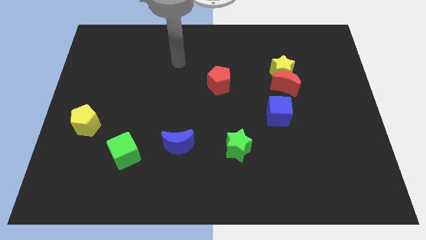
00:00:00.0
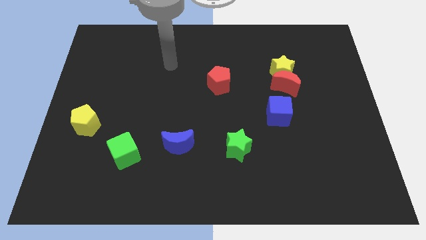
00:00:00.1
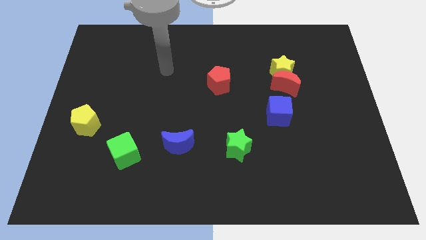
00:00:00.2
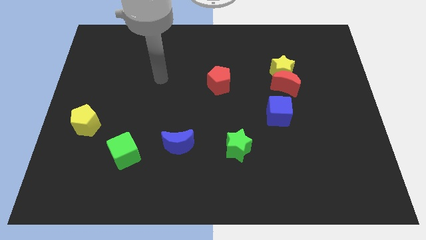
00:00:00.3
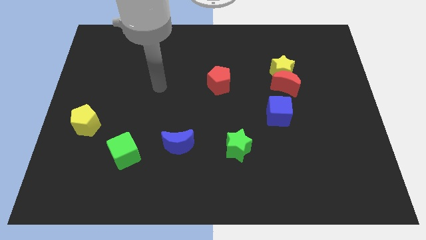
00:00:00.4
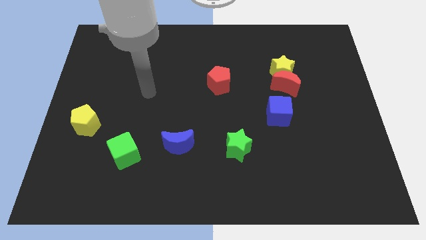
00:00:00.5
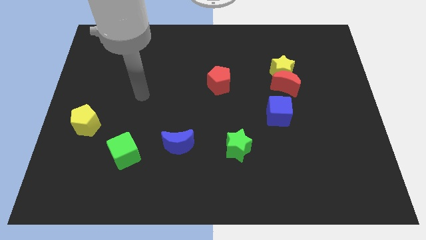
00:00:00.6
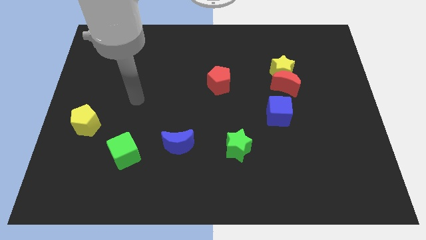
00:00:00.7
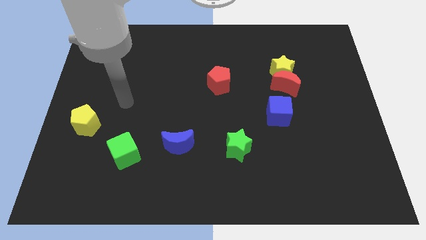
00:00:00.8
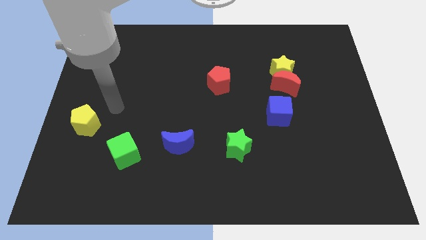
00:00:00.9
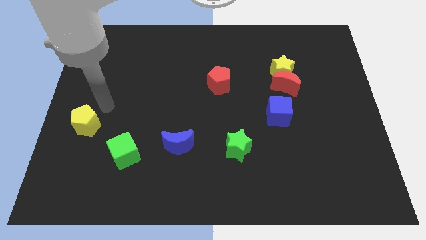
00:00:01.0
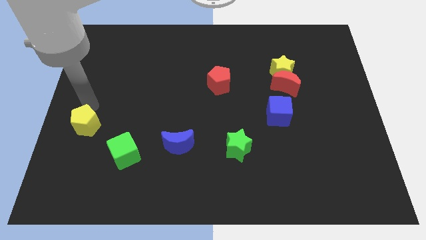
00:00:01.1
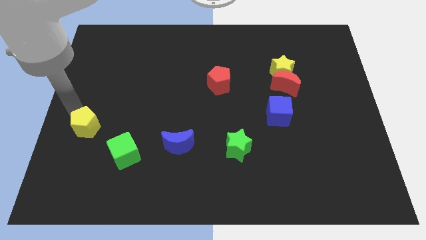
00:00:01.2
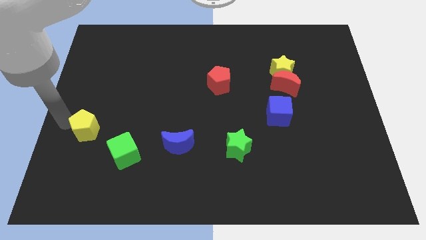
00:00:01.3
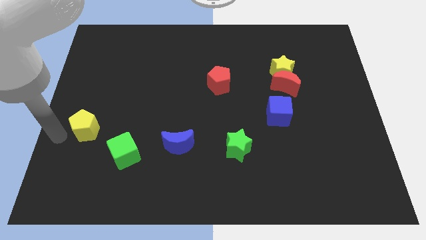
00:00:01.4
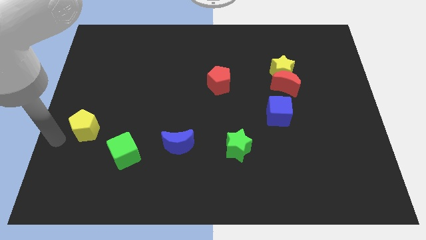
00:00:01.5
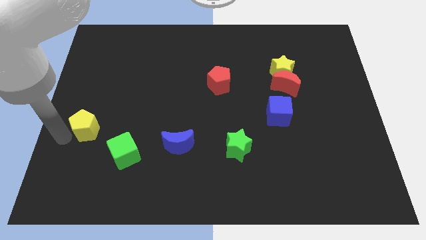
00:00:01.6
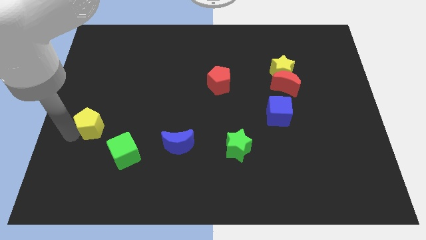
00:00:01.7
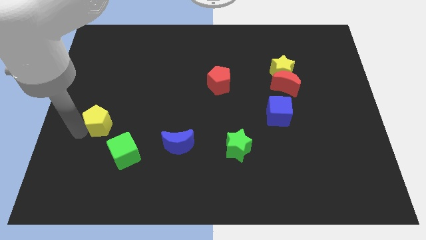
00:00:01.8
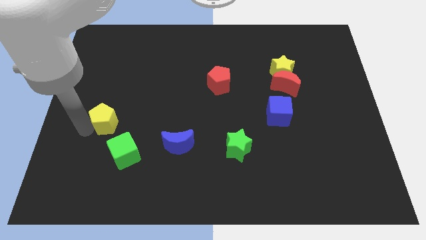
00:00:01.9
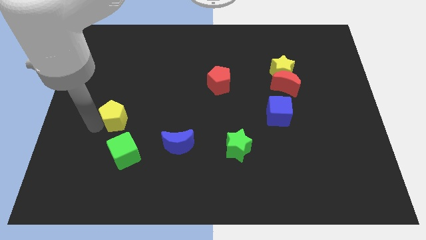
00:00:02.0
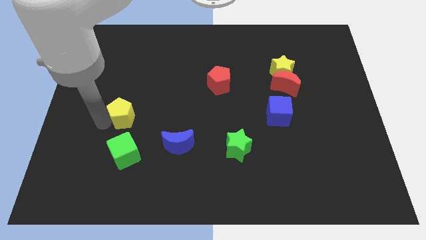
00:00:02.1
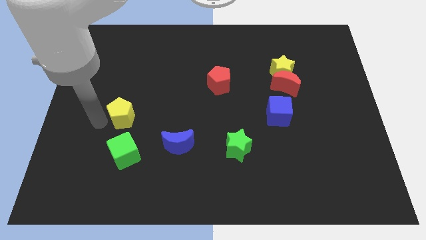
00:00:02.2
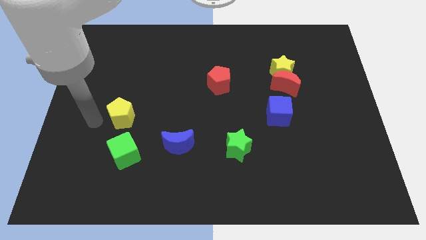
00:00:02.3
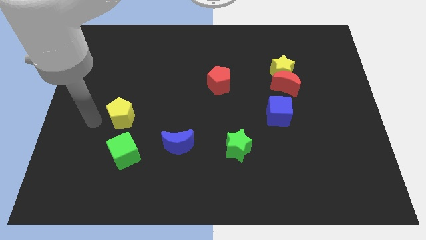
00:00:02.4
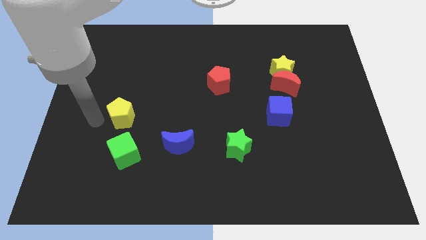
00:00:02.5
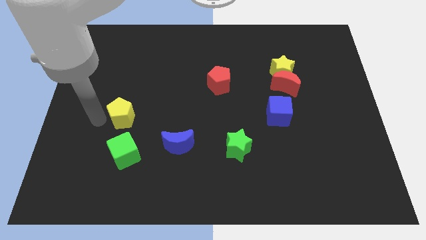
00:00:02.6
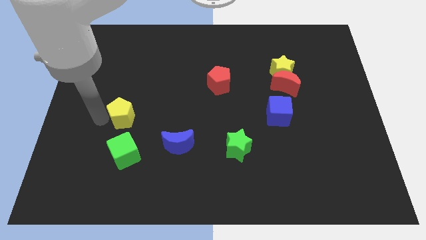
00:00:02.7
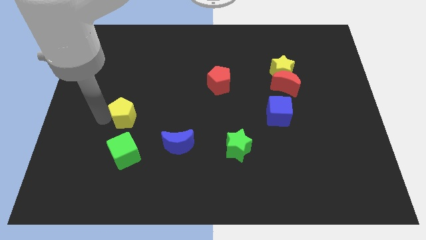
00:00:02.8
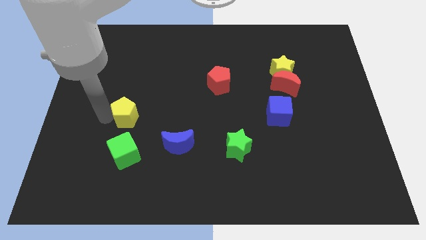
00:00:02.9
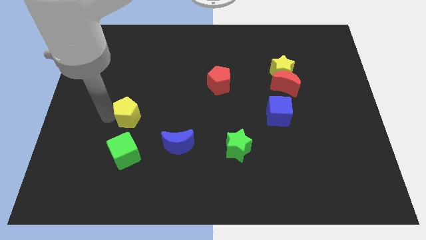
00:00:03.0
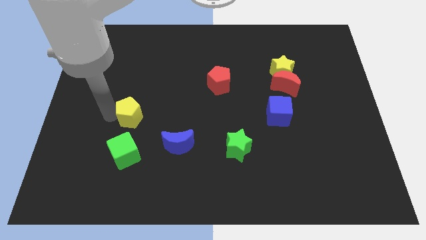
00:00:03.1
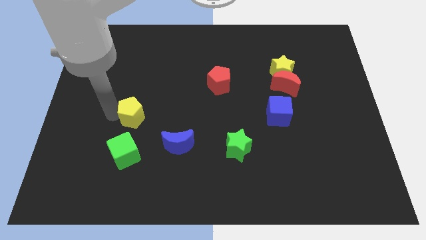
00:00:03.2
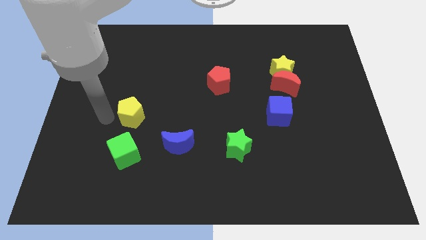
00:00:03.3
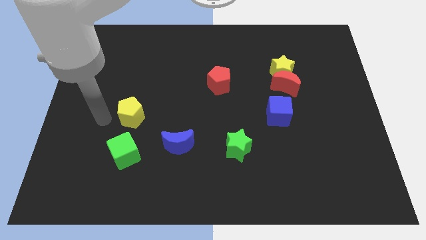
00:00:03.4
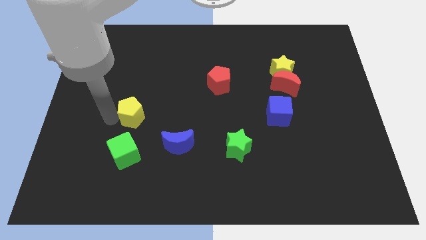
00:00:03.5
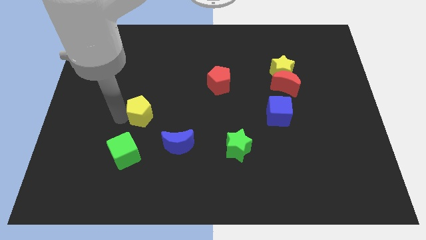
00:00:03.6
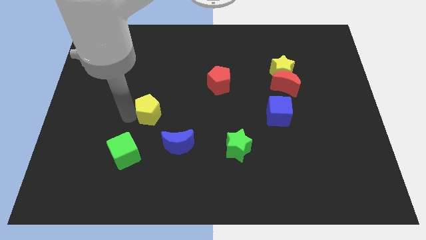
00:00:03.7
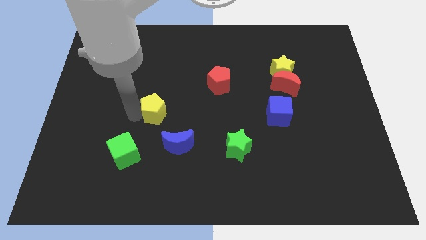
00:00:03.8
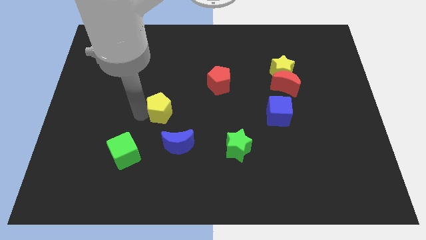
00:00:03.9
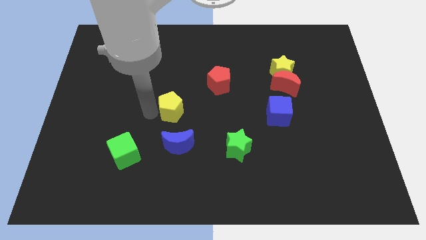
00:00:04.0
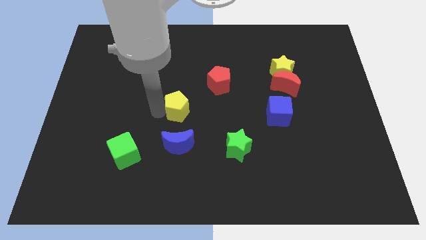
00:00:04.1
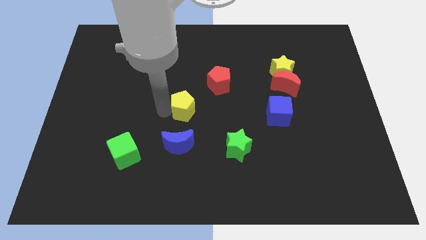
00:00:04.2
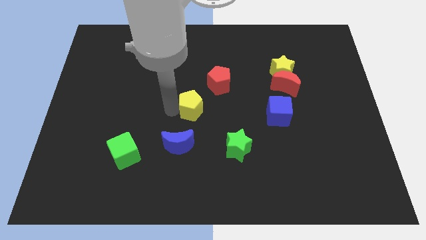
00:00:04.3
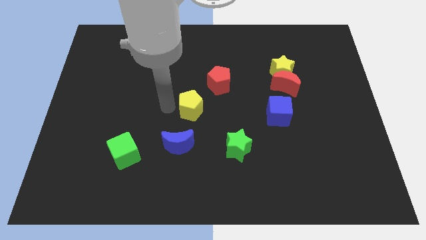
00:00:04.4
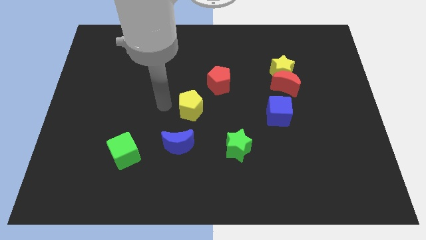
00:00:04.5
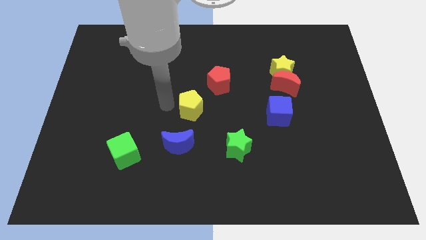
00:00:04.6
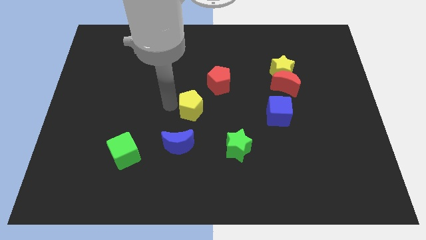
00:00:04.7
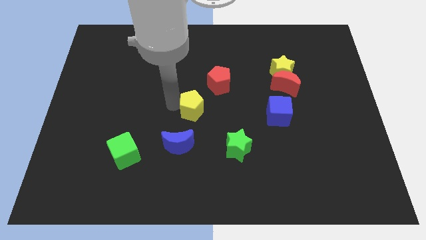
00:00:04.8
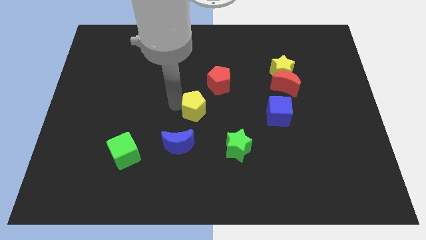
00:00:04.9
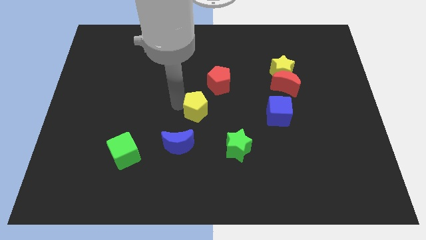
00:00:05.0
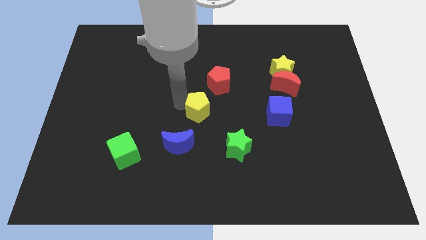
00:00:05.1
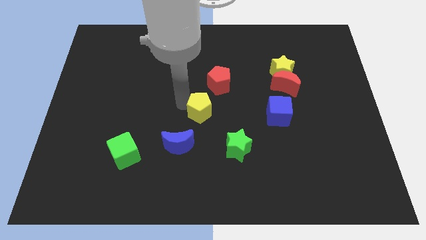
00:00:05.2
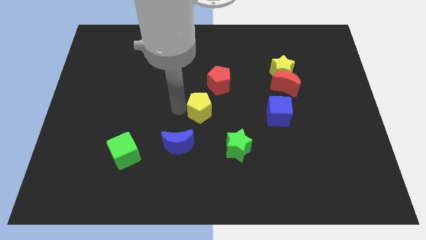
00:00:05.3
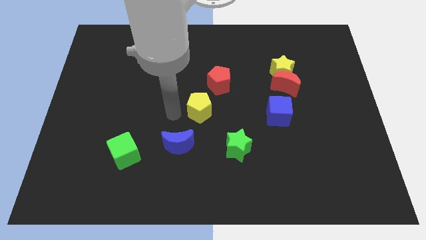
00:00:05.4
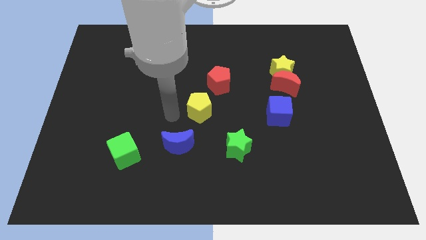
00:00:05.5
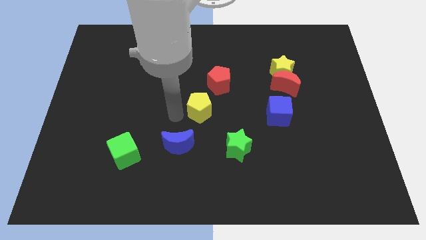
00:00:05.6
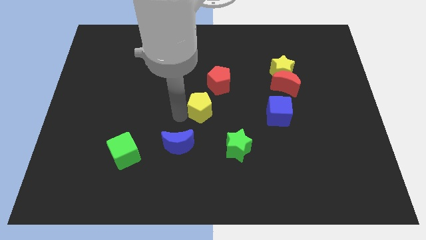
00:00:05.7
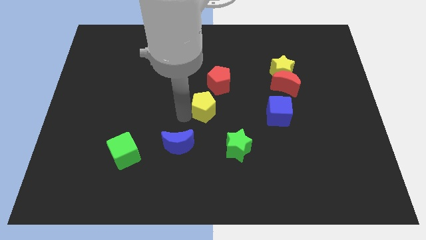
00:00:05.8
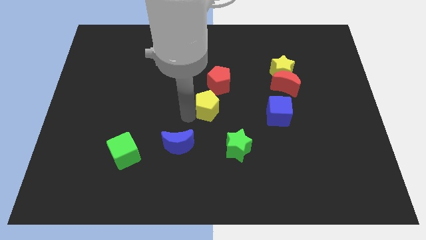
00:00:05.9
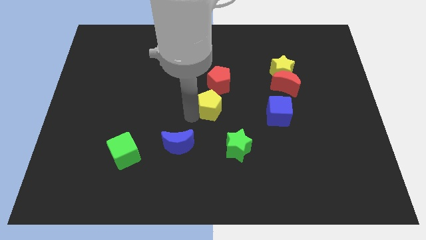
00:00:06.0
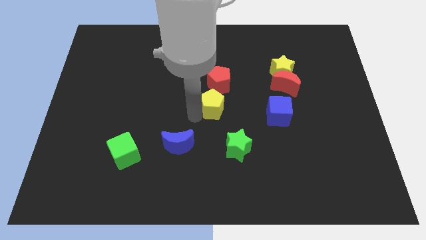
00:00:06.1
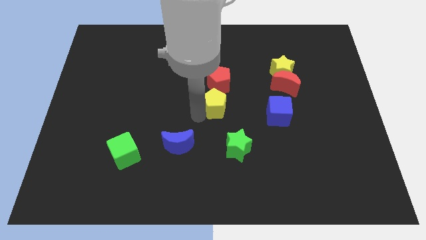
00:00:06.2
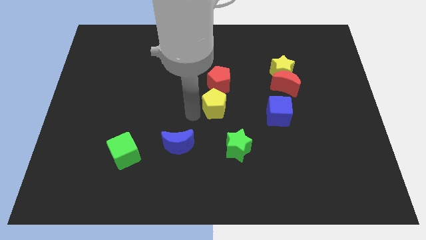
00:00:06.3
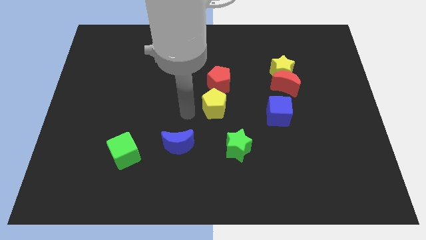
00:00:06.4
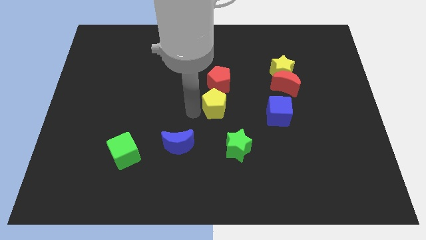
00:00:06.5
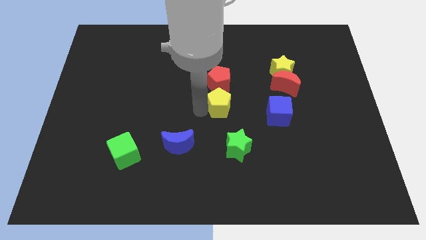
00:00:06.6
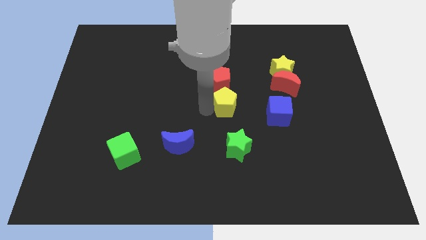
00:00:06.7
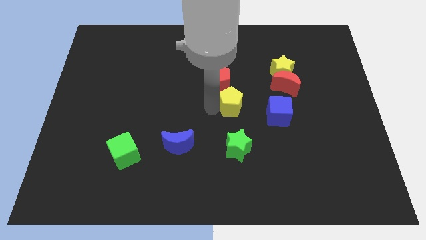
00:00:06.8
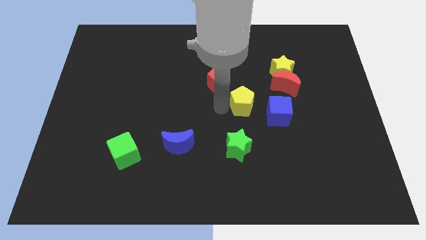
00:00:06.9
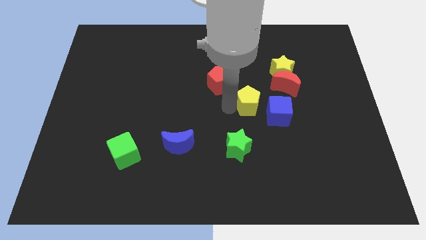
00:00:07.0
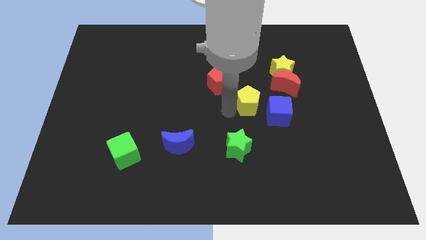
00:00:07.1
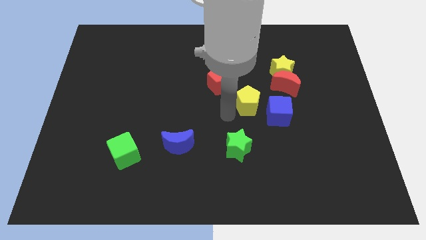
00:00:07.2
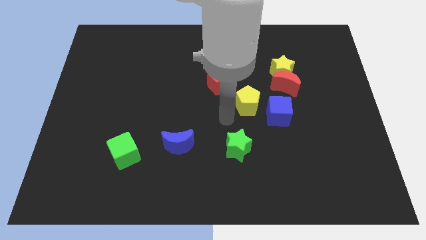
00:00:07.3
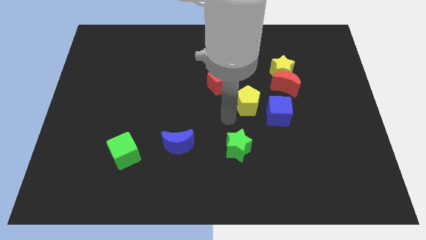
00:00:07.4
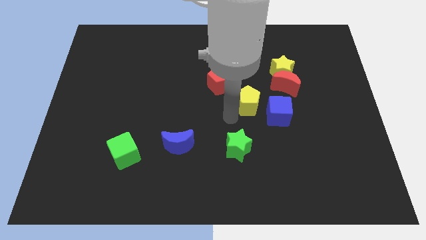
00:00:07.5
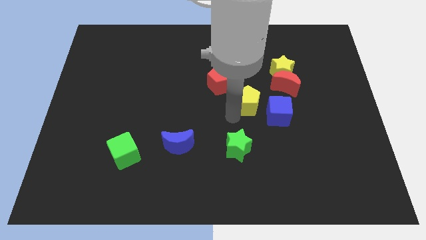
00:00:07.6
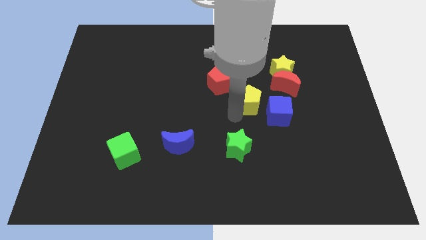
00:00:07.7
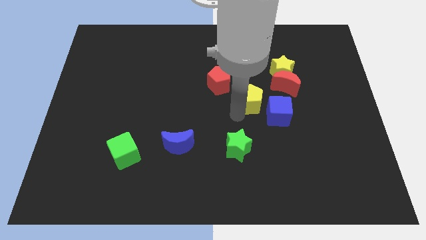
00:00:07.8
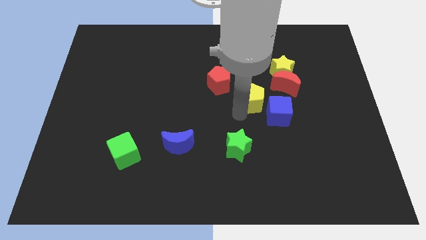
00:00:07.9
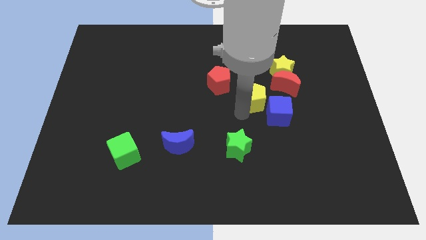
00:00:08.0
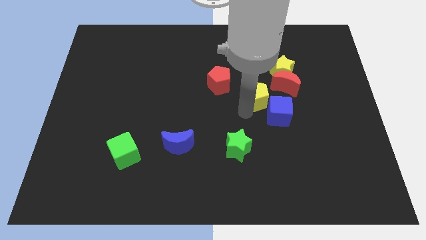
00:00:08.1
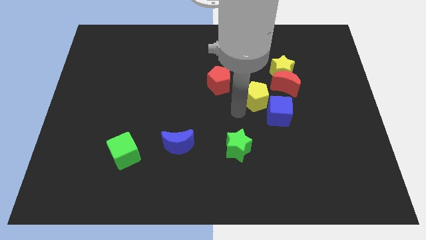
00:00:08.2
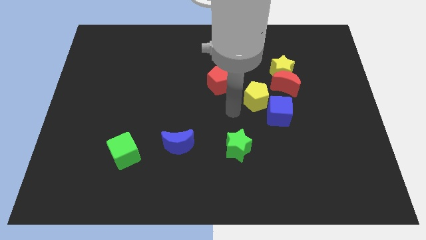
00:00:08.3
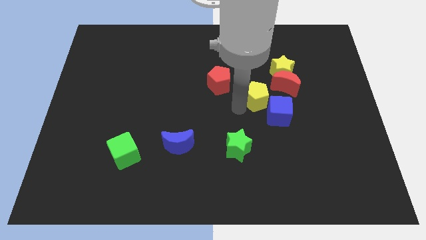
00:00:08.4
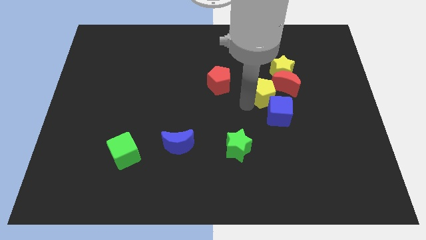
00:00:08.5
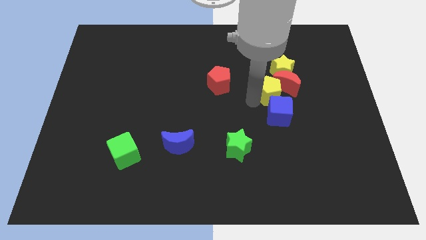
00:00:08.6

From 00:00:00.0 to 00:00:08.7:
slide the yellow pentagon close to the red moon

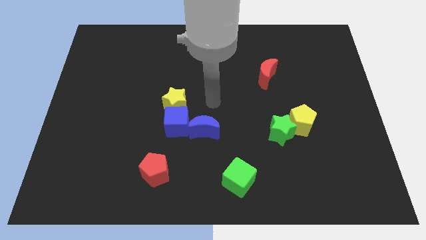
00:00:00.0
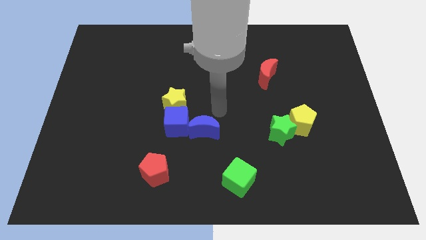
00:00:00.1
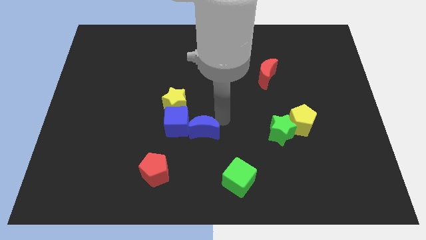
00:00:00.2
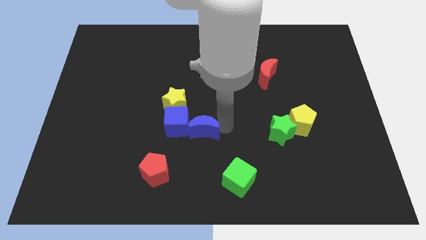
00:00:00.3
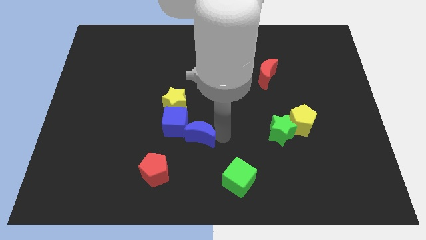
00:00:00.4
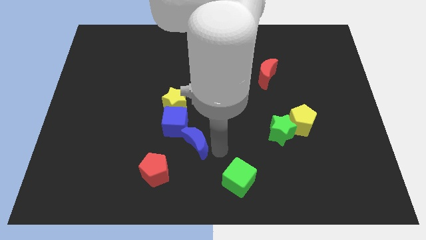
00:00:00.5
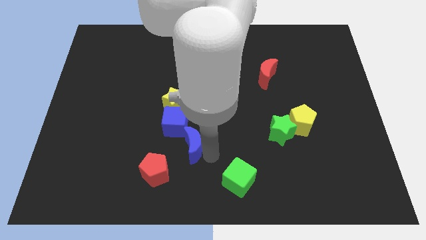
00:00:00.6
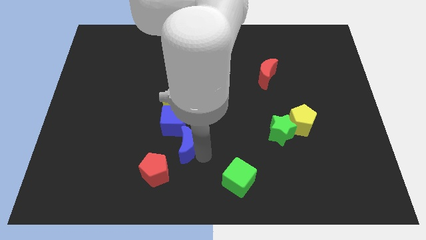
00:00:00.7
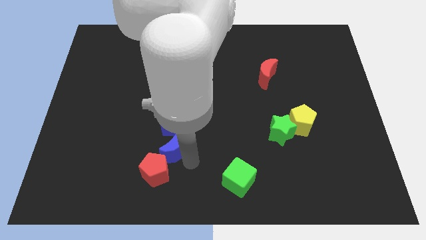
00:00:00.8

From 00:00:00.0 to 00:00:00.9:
move the red pentagon to the blue moon
